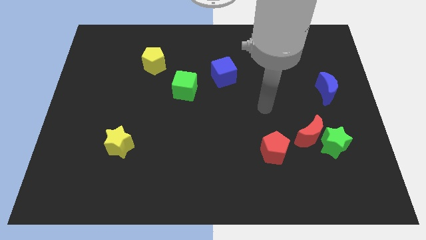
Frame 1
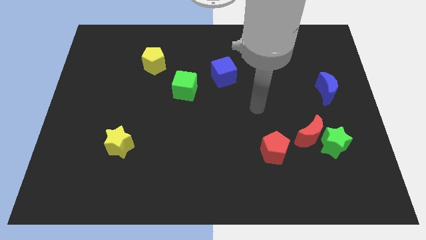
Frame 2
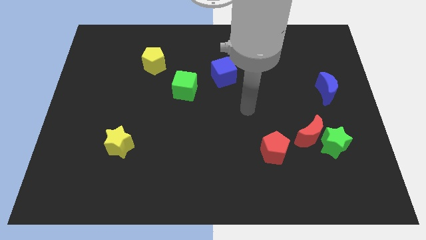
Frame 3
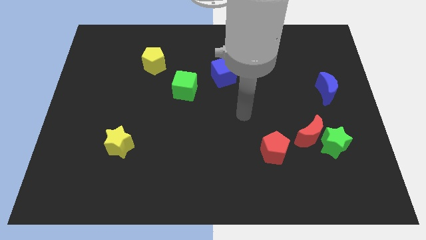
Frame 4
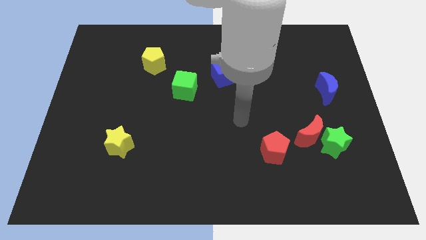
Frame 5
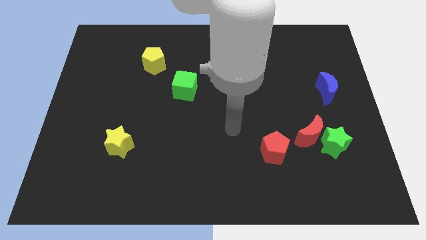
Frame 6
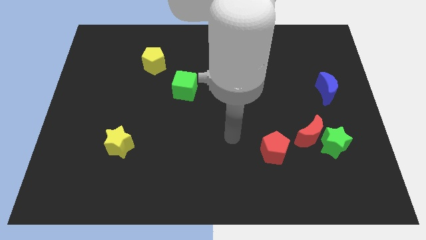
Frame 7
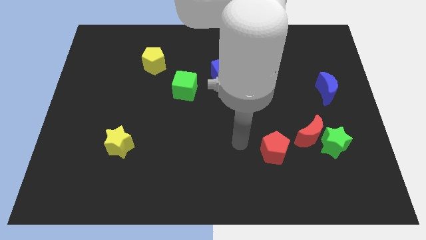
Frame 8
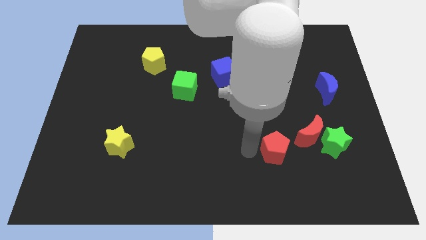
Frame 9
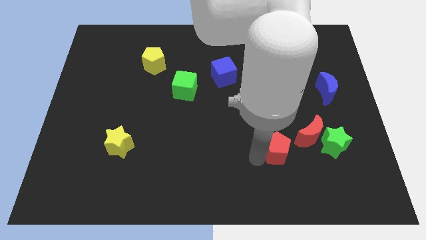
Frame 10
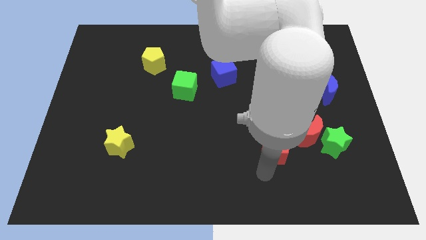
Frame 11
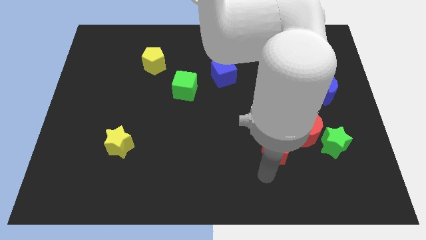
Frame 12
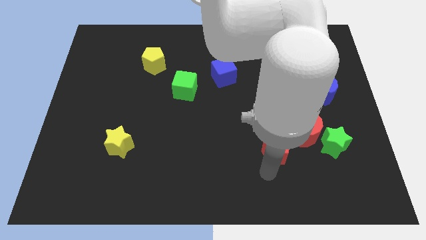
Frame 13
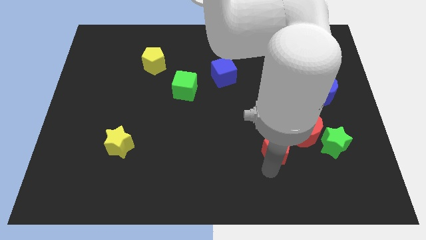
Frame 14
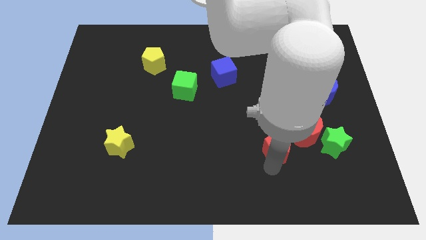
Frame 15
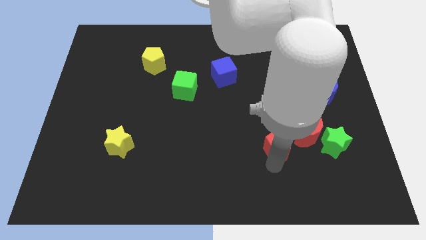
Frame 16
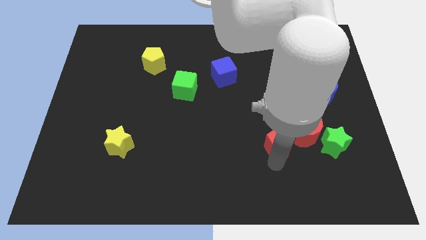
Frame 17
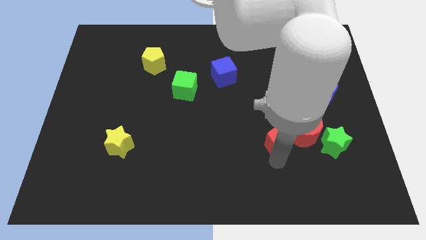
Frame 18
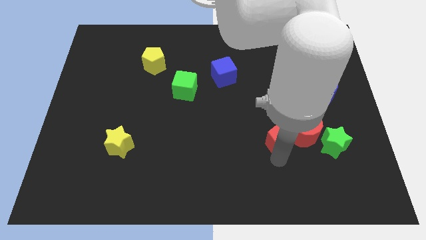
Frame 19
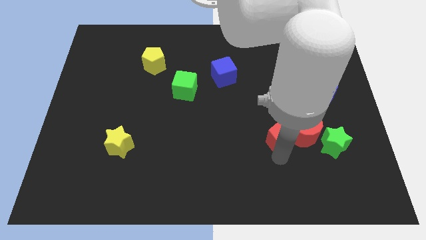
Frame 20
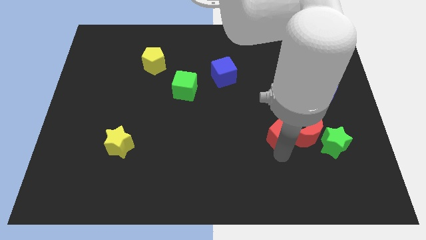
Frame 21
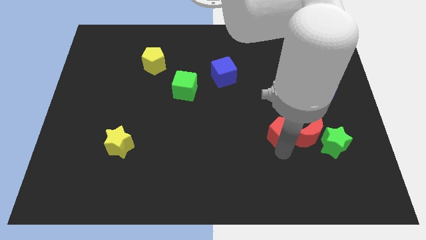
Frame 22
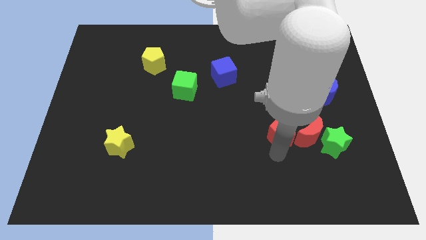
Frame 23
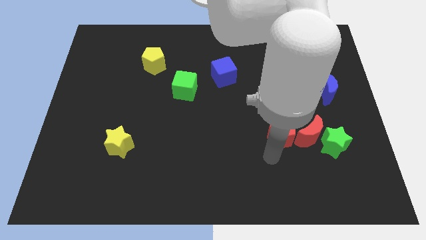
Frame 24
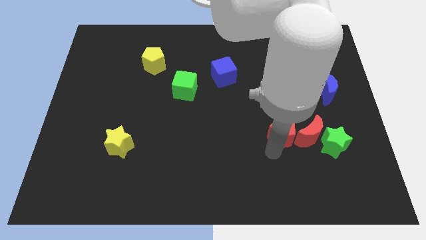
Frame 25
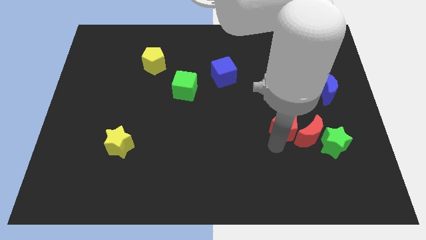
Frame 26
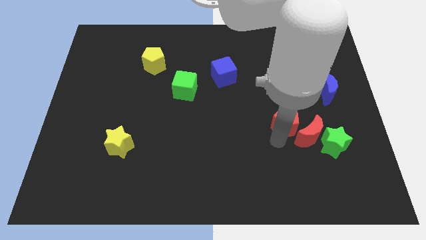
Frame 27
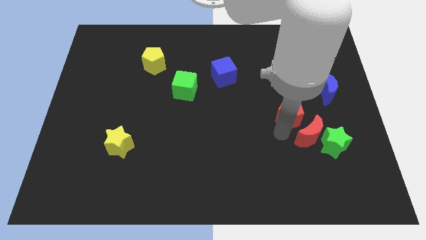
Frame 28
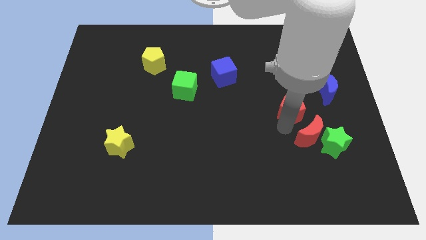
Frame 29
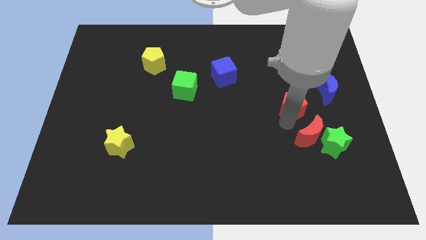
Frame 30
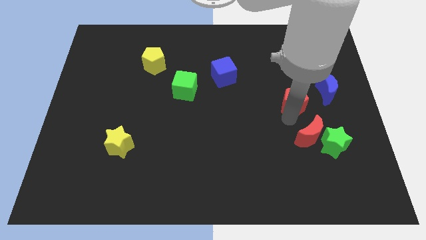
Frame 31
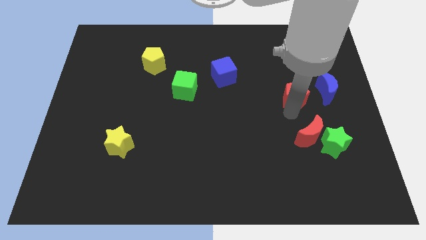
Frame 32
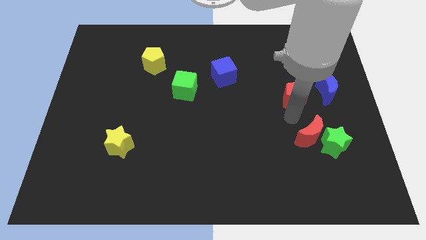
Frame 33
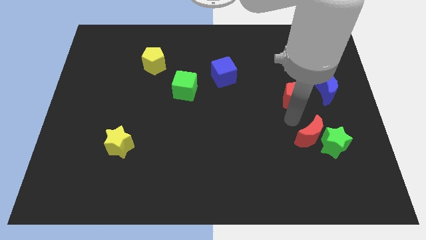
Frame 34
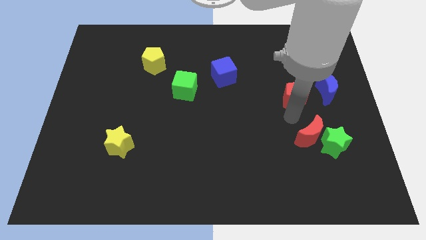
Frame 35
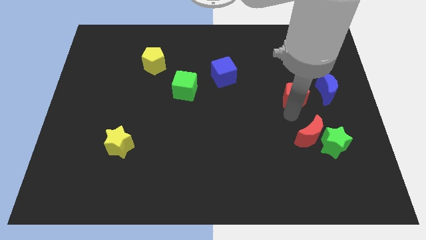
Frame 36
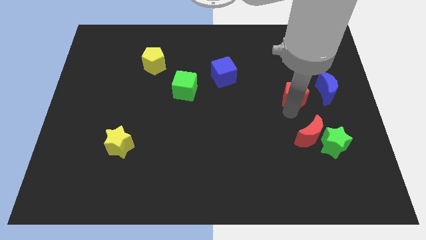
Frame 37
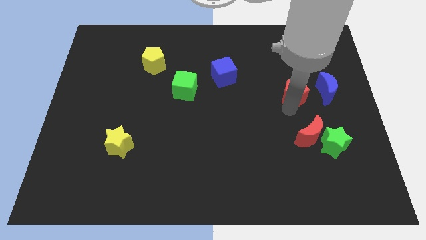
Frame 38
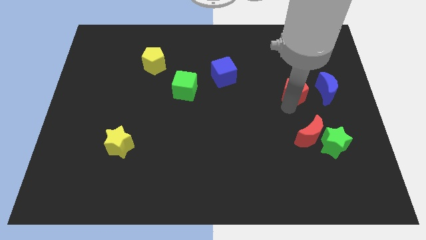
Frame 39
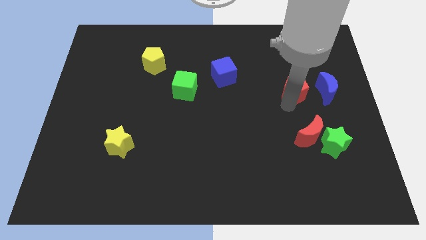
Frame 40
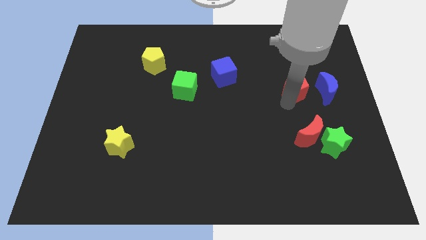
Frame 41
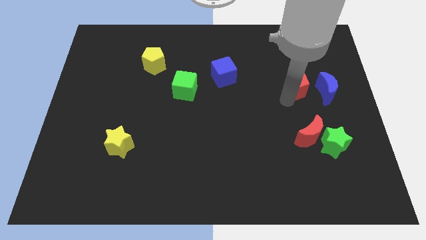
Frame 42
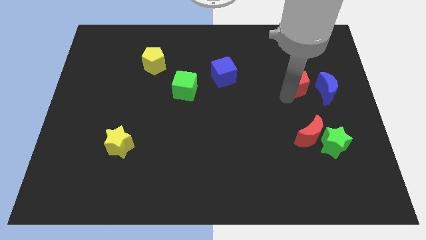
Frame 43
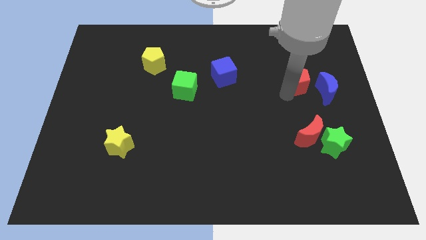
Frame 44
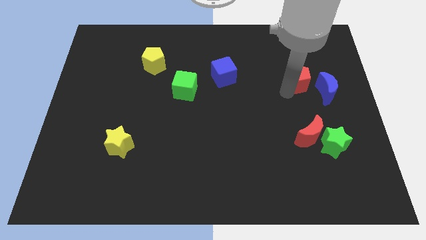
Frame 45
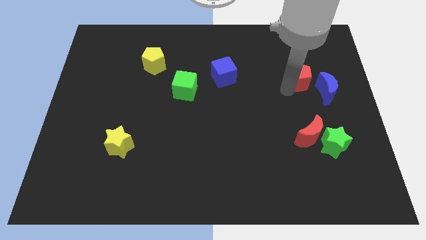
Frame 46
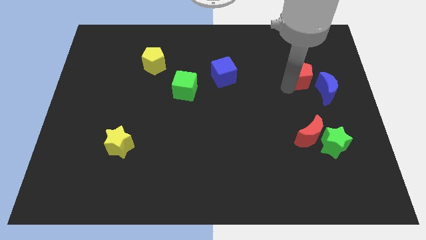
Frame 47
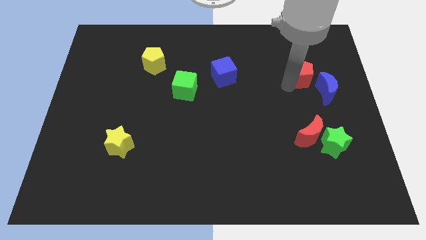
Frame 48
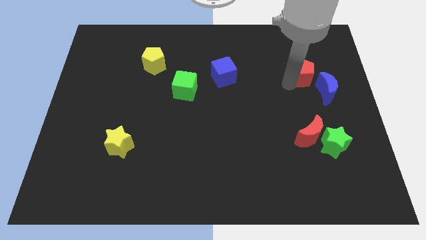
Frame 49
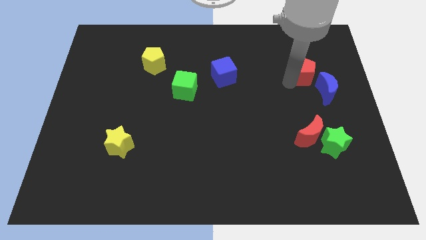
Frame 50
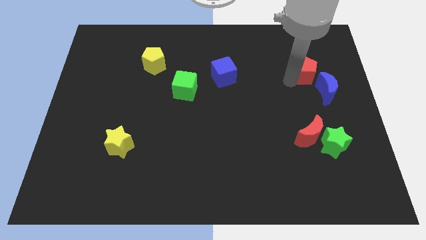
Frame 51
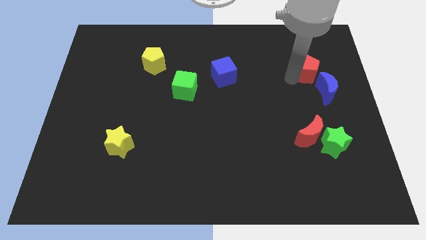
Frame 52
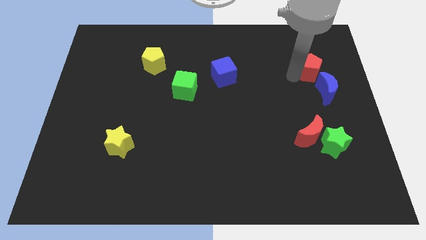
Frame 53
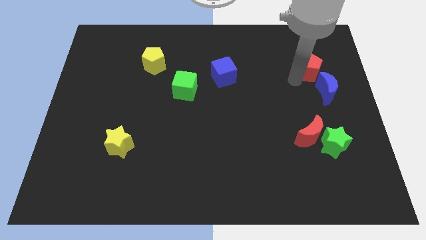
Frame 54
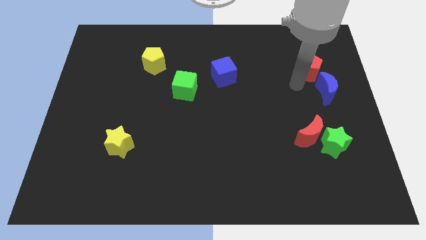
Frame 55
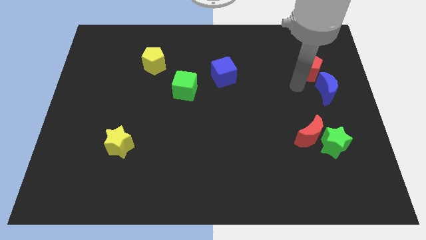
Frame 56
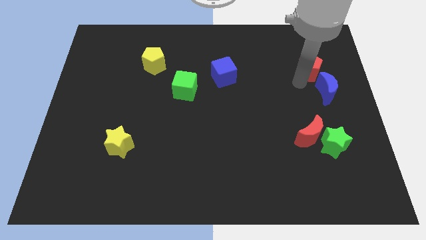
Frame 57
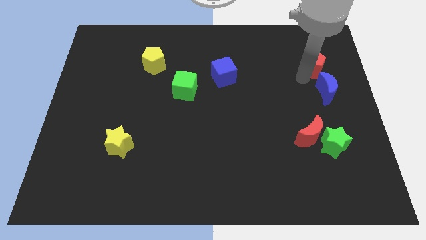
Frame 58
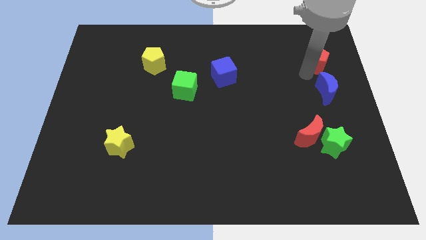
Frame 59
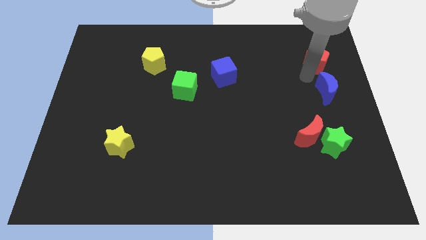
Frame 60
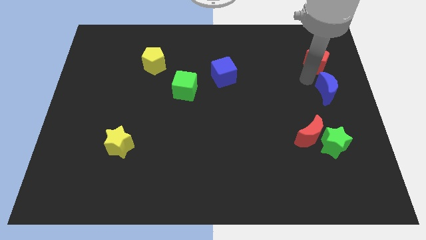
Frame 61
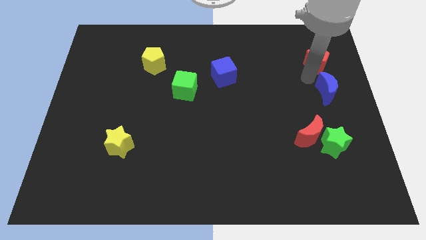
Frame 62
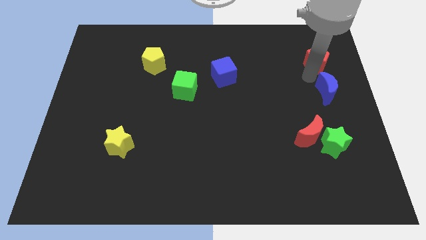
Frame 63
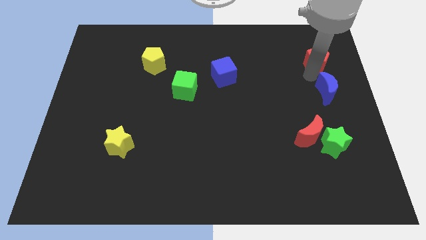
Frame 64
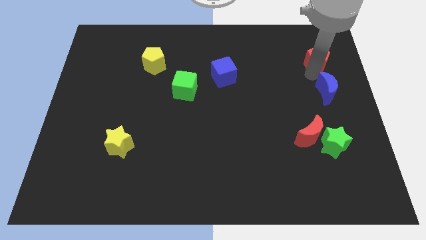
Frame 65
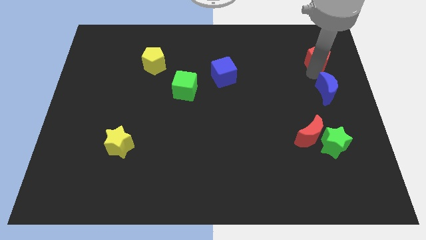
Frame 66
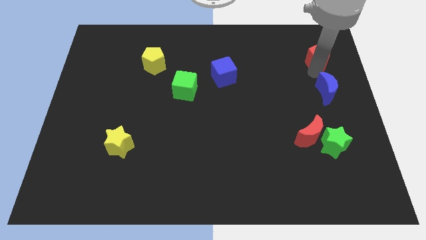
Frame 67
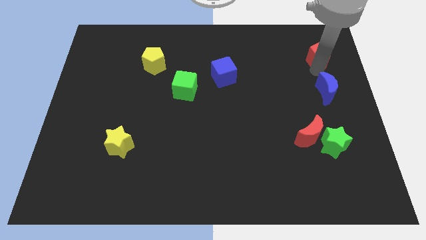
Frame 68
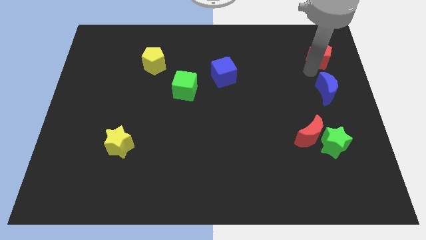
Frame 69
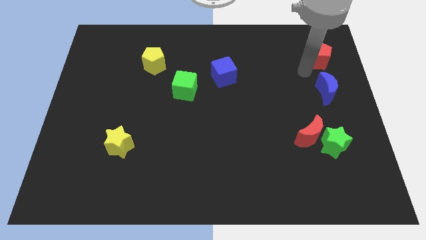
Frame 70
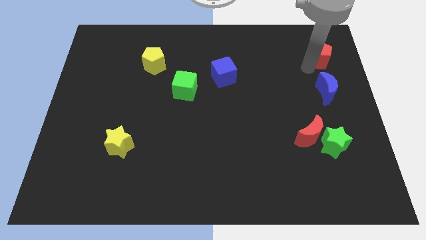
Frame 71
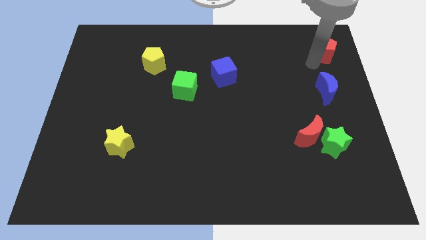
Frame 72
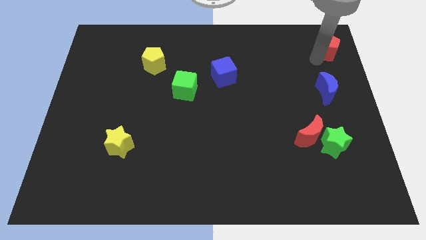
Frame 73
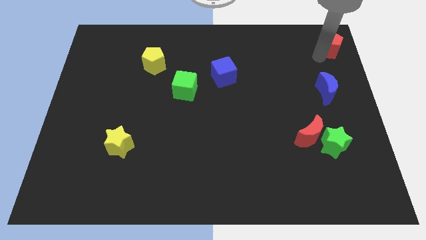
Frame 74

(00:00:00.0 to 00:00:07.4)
put the red pentagon to the top right

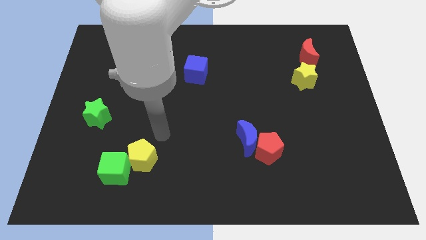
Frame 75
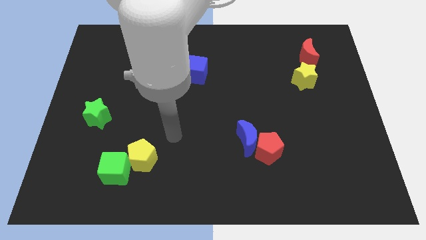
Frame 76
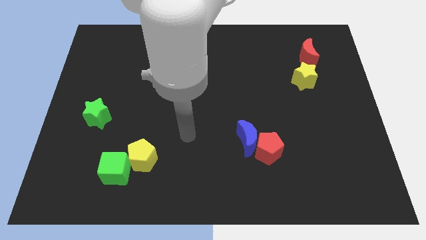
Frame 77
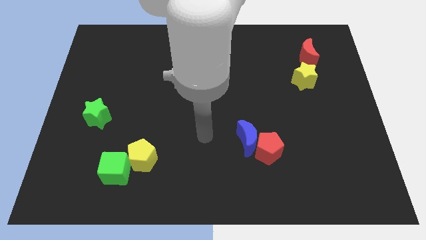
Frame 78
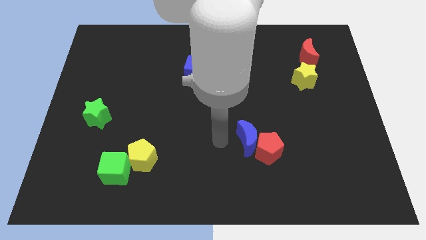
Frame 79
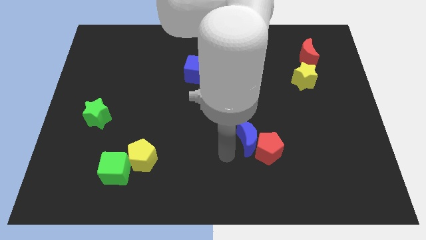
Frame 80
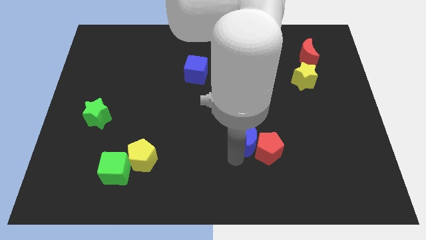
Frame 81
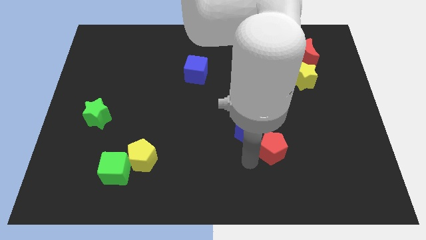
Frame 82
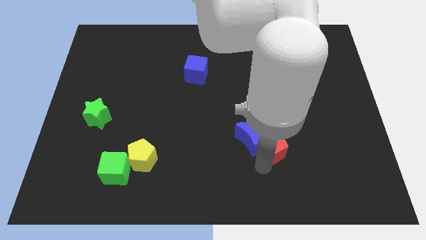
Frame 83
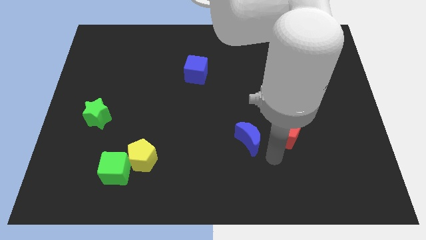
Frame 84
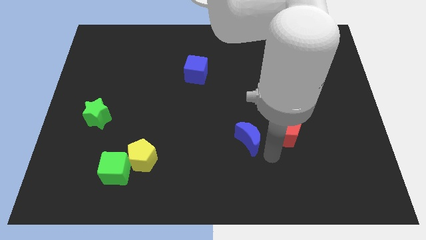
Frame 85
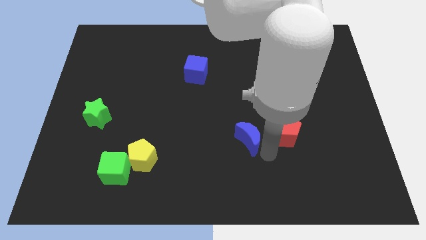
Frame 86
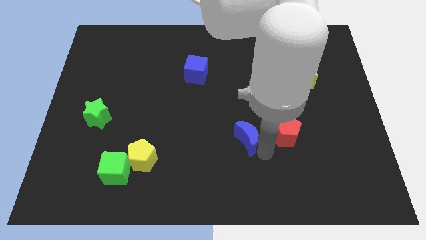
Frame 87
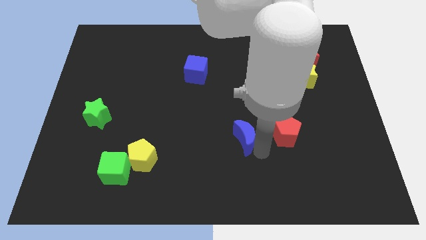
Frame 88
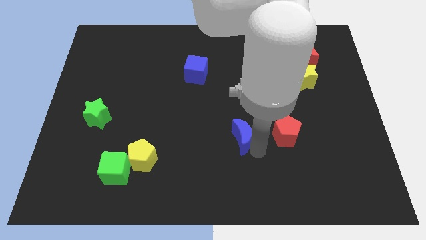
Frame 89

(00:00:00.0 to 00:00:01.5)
put the blue moon to the center of the board
